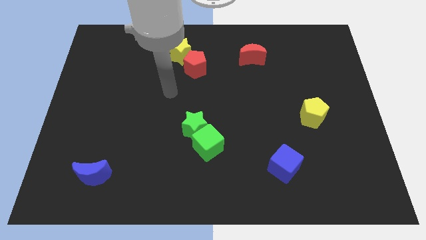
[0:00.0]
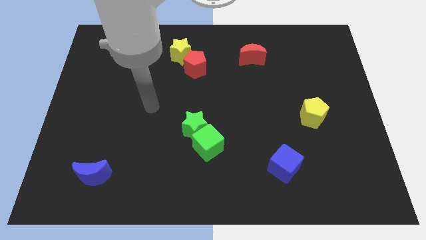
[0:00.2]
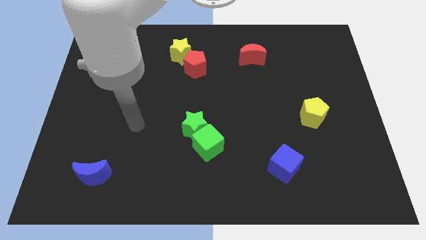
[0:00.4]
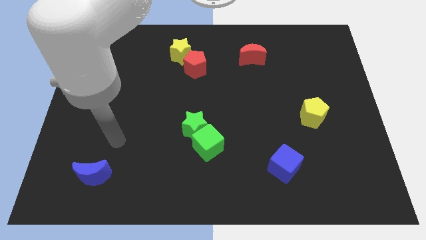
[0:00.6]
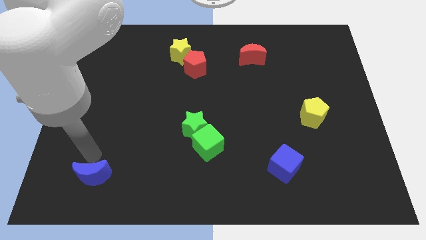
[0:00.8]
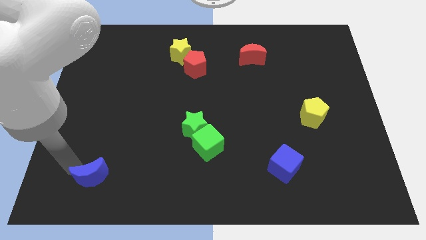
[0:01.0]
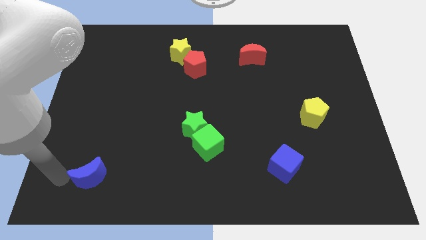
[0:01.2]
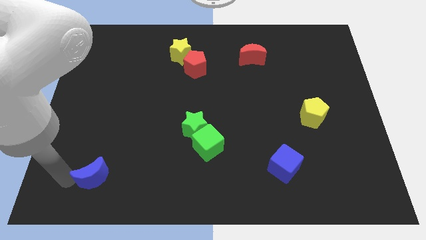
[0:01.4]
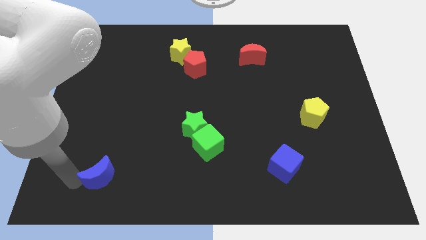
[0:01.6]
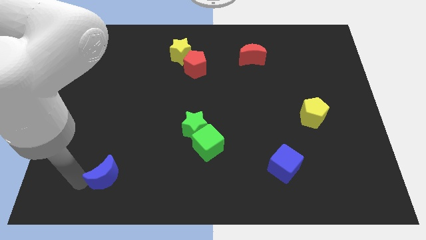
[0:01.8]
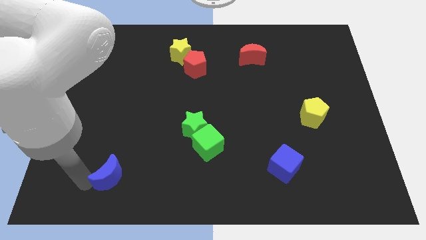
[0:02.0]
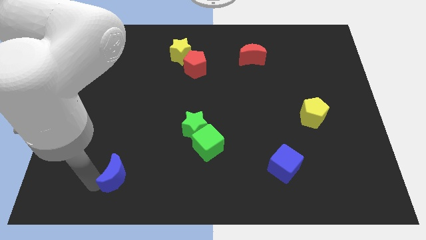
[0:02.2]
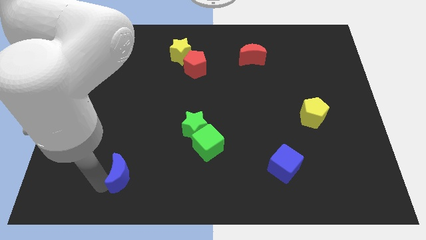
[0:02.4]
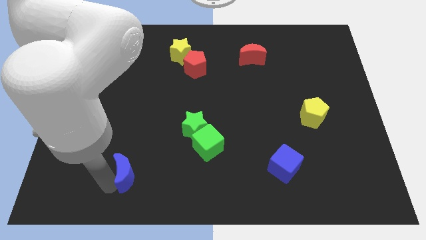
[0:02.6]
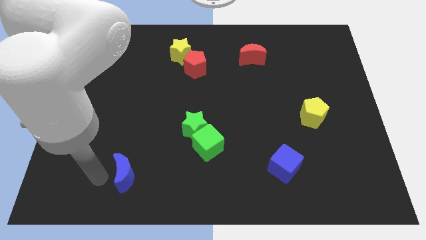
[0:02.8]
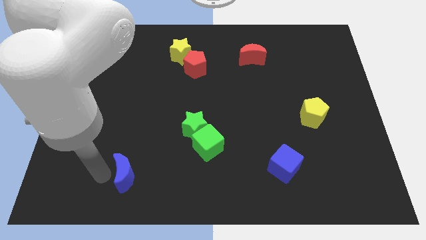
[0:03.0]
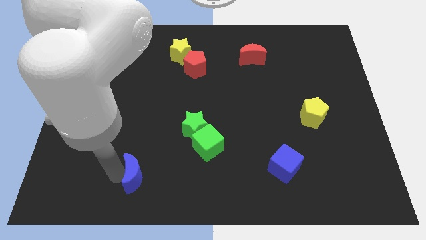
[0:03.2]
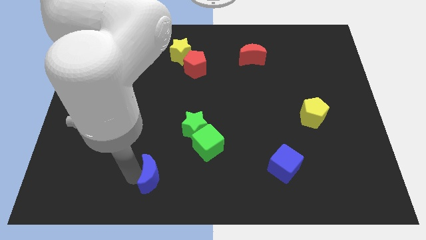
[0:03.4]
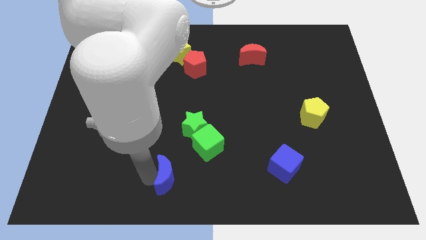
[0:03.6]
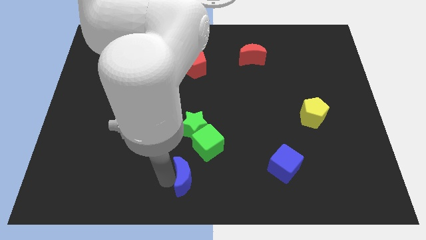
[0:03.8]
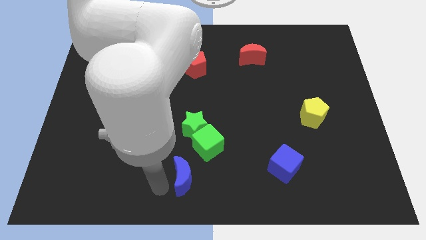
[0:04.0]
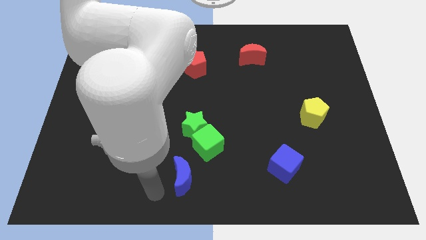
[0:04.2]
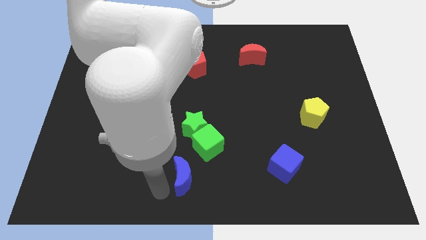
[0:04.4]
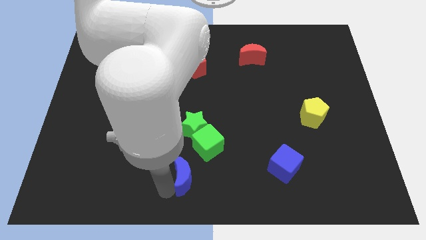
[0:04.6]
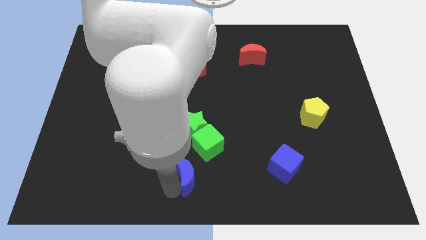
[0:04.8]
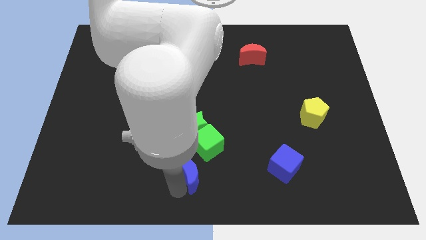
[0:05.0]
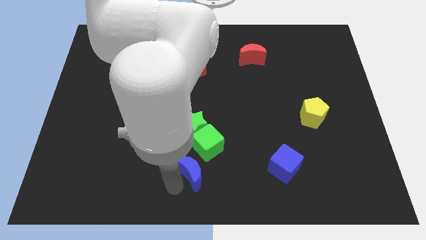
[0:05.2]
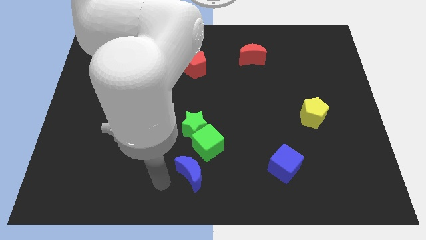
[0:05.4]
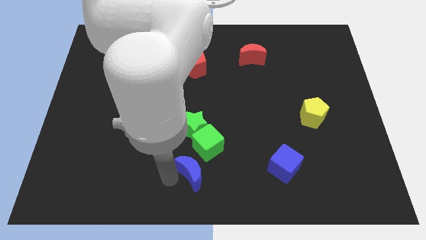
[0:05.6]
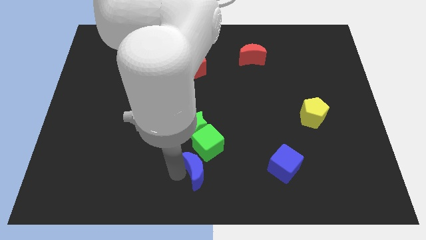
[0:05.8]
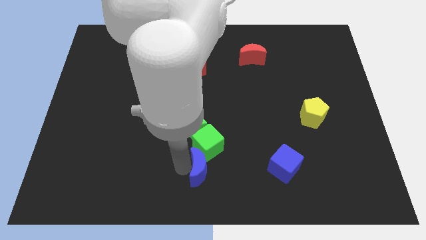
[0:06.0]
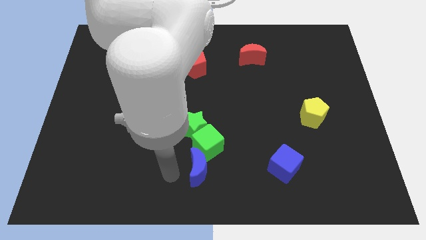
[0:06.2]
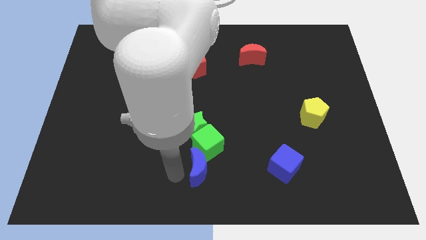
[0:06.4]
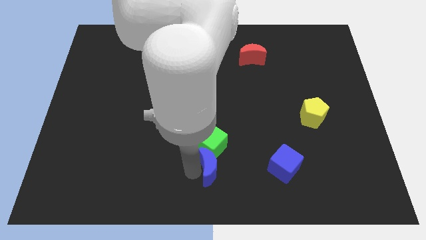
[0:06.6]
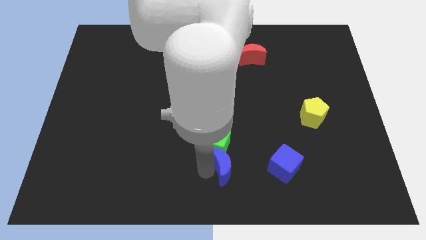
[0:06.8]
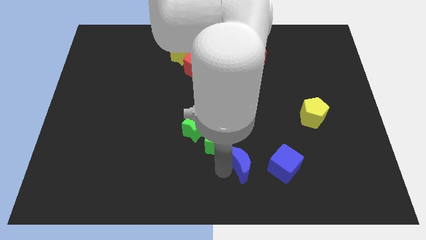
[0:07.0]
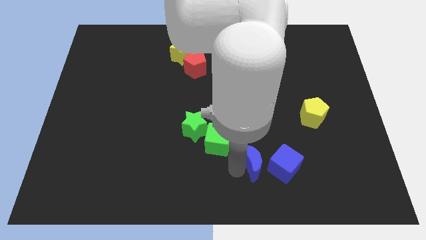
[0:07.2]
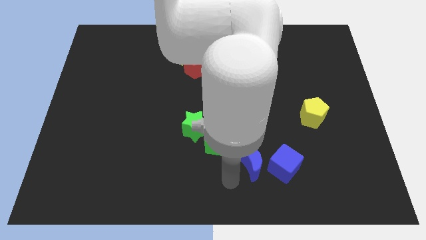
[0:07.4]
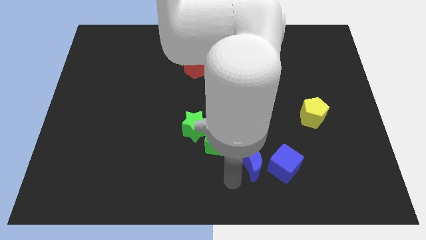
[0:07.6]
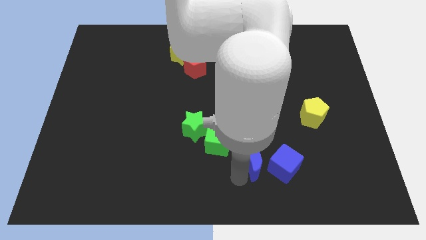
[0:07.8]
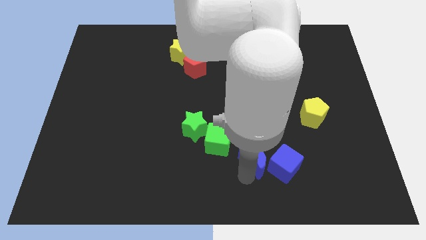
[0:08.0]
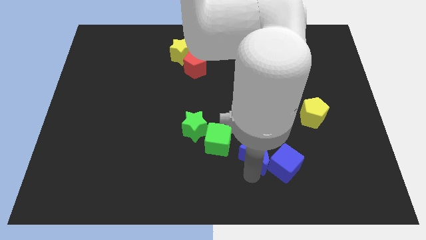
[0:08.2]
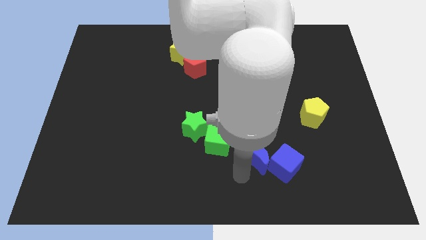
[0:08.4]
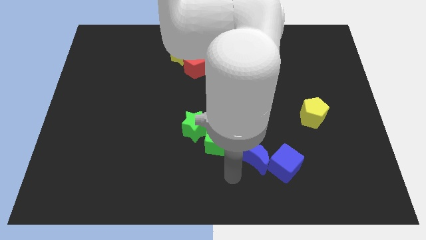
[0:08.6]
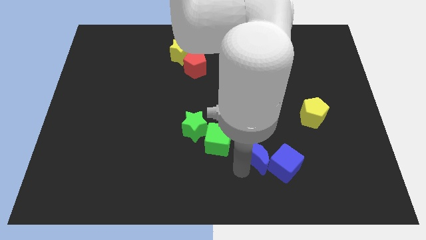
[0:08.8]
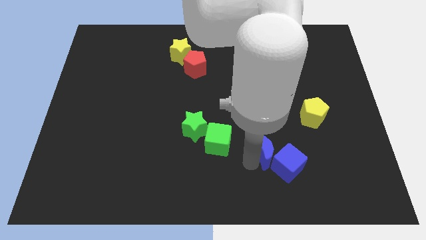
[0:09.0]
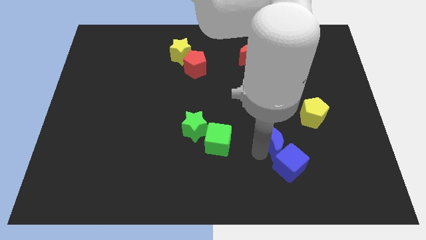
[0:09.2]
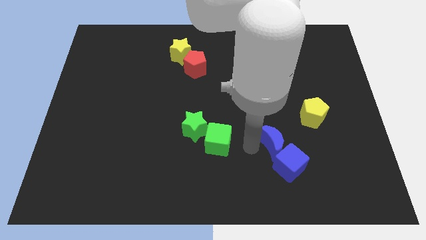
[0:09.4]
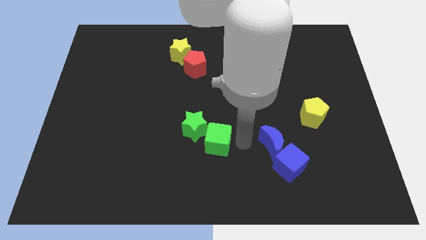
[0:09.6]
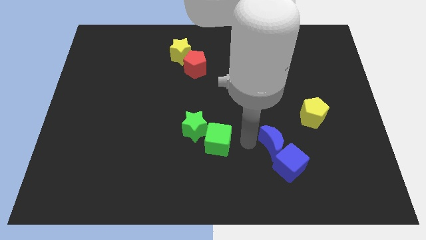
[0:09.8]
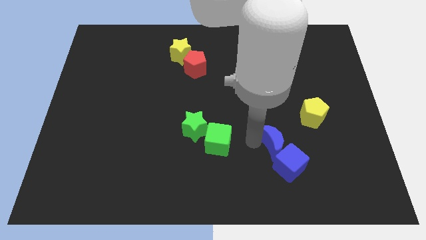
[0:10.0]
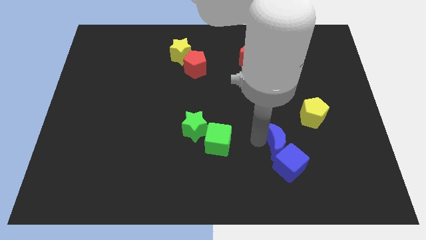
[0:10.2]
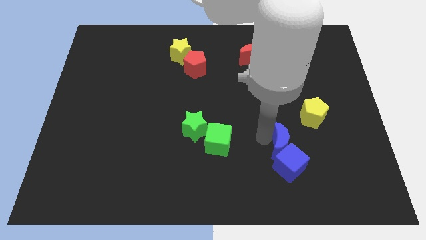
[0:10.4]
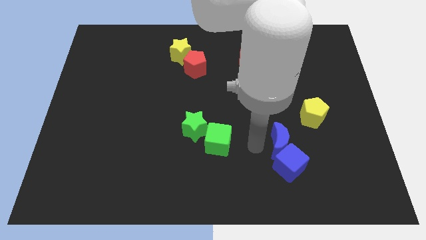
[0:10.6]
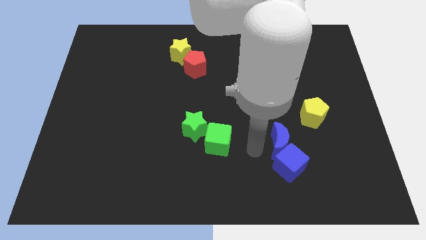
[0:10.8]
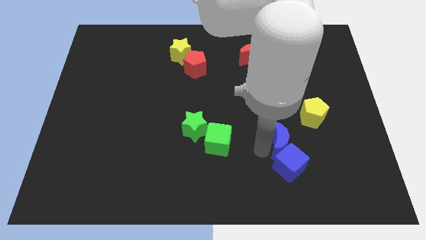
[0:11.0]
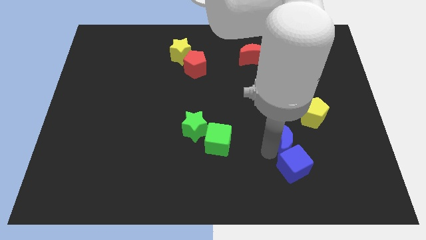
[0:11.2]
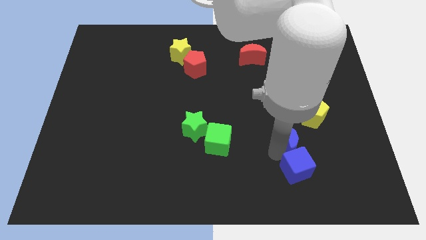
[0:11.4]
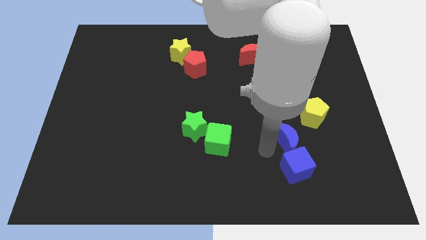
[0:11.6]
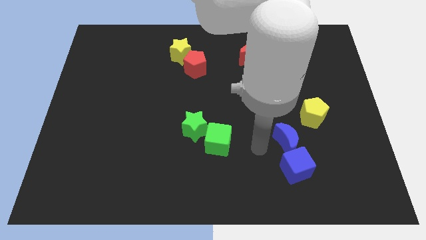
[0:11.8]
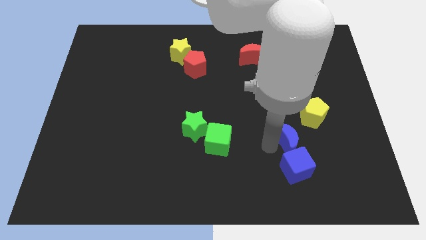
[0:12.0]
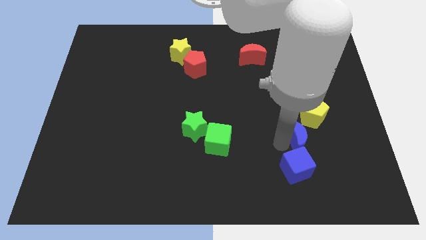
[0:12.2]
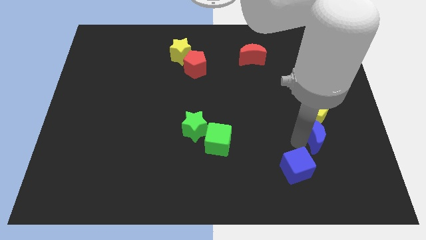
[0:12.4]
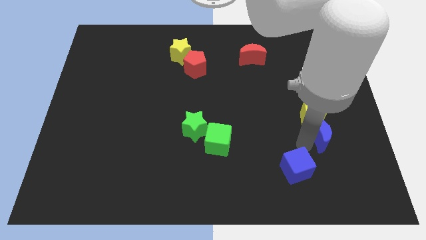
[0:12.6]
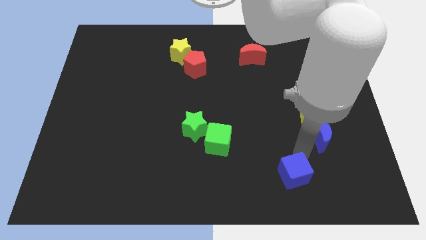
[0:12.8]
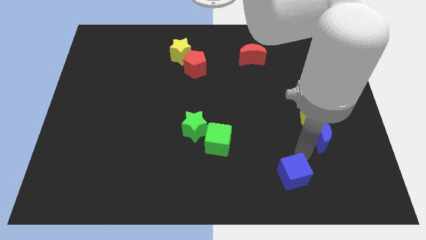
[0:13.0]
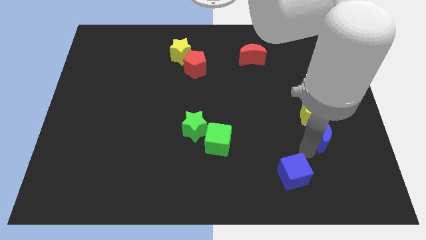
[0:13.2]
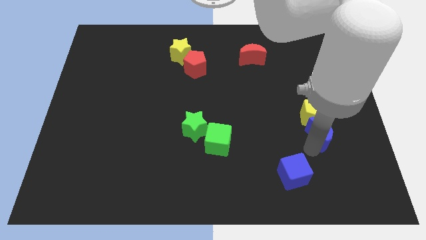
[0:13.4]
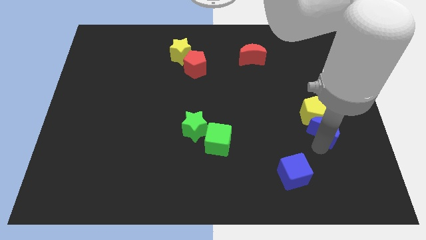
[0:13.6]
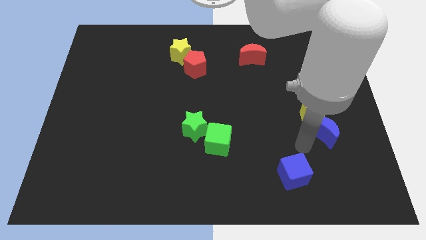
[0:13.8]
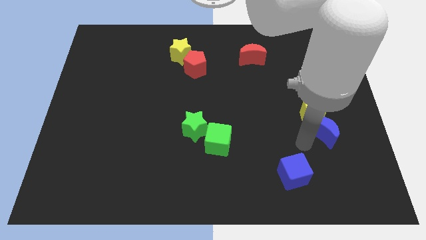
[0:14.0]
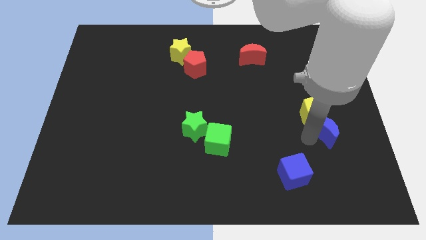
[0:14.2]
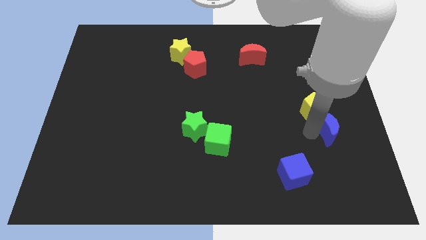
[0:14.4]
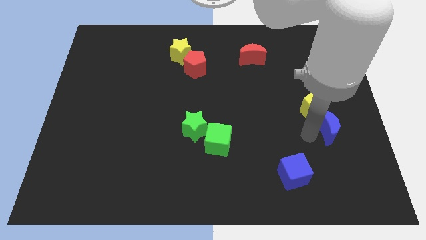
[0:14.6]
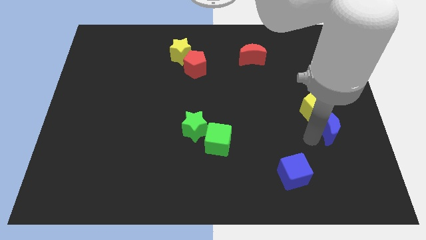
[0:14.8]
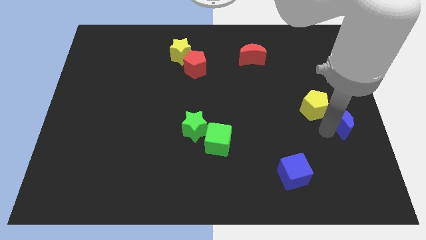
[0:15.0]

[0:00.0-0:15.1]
slide the blue moon to the right side
